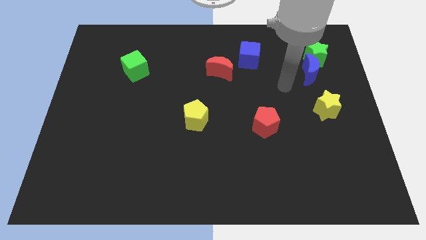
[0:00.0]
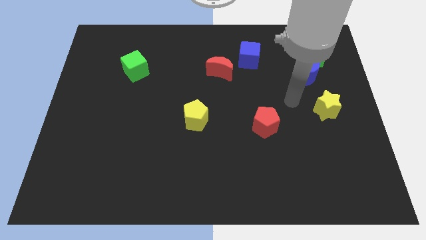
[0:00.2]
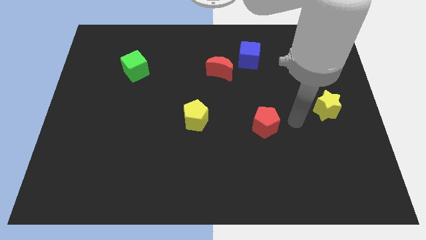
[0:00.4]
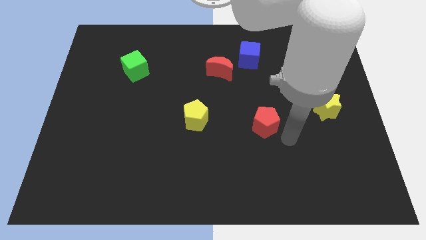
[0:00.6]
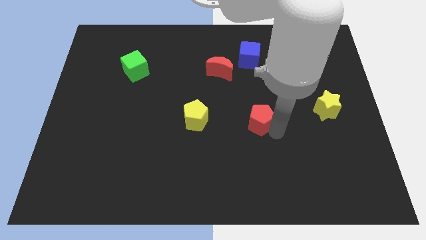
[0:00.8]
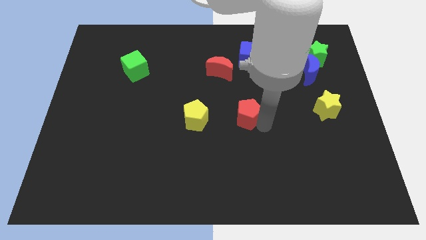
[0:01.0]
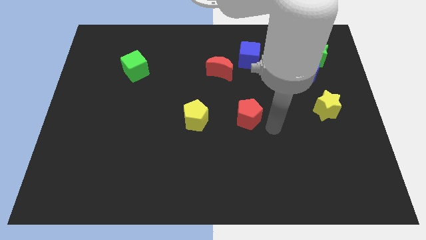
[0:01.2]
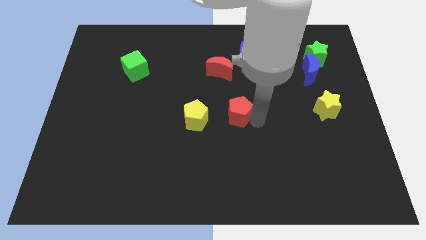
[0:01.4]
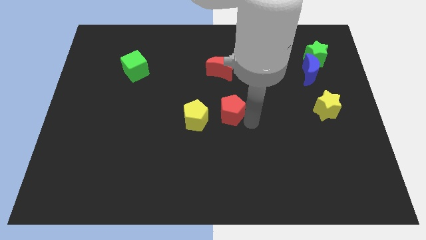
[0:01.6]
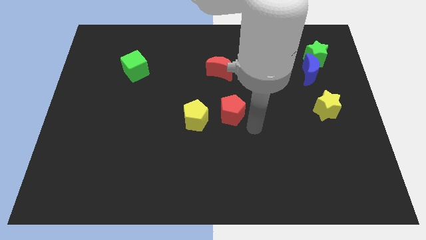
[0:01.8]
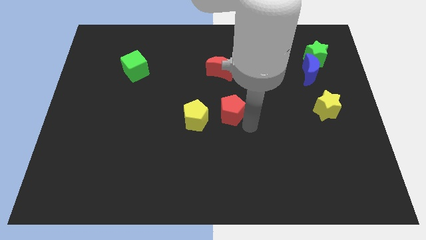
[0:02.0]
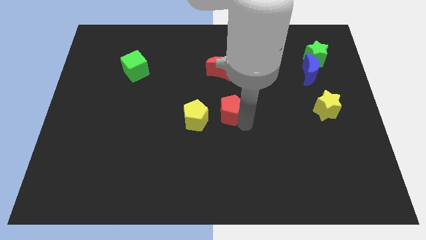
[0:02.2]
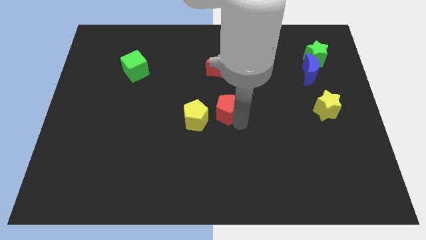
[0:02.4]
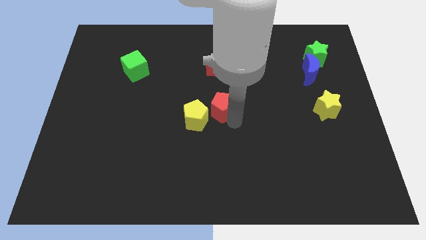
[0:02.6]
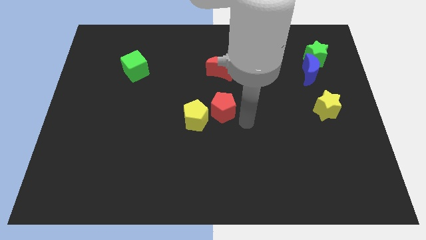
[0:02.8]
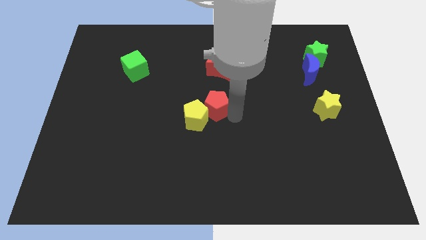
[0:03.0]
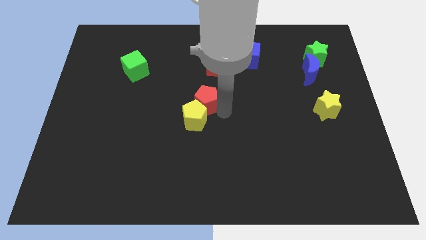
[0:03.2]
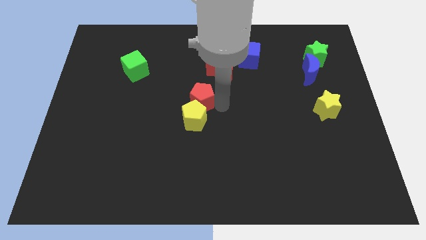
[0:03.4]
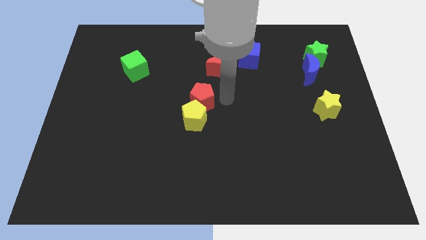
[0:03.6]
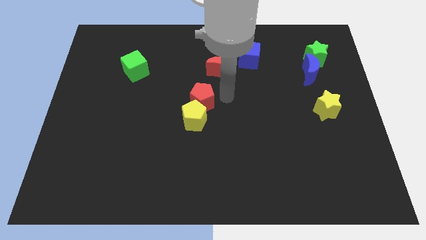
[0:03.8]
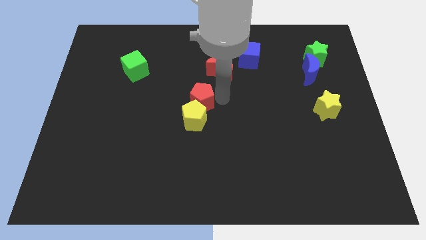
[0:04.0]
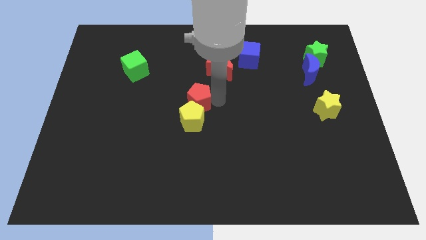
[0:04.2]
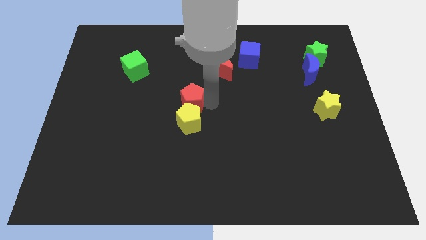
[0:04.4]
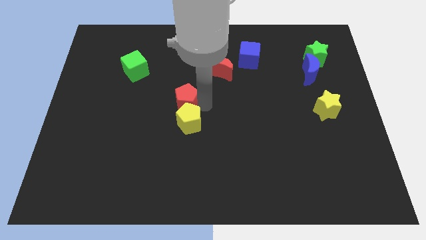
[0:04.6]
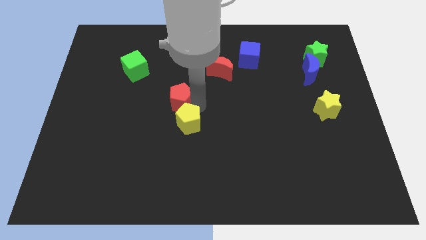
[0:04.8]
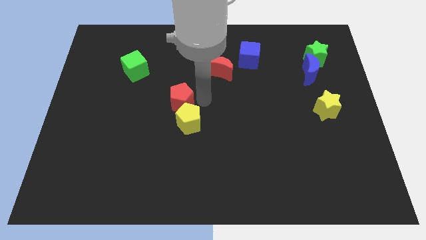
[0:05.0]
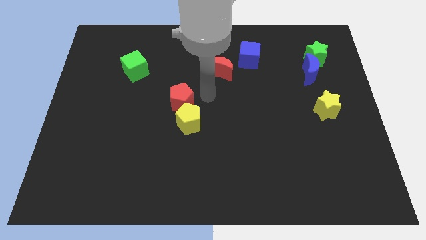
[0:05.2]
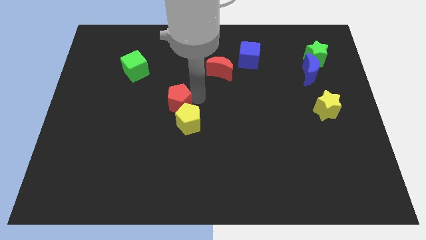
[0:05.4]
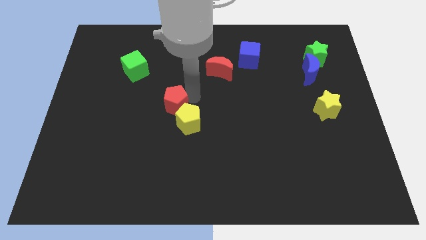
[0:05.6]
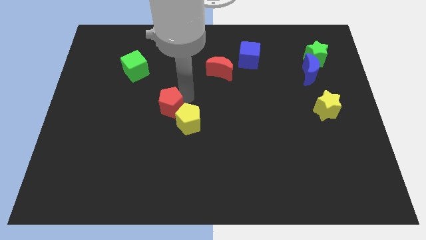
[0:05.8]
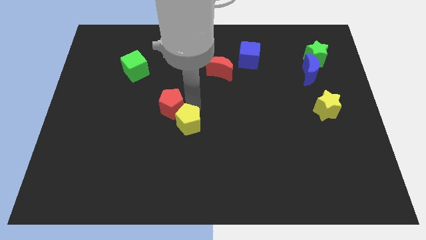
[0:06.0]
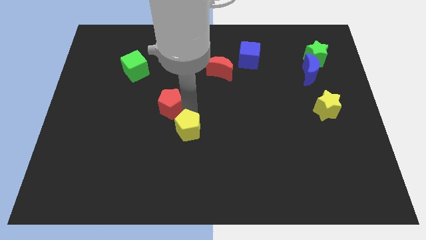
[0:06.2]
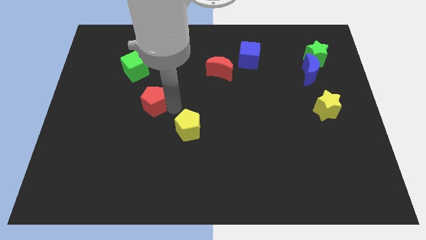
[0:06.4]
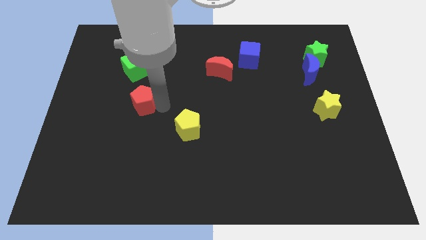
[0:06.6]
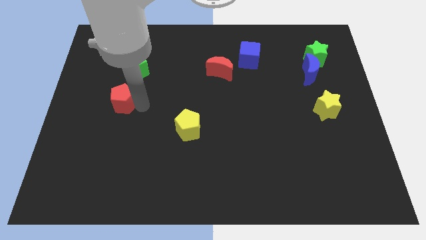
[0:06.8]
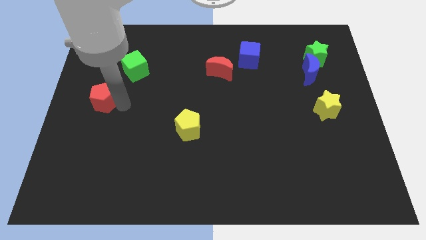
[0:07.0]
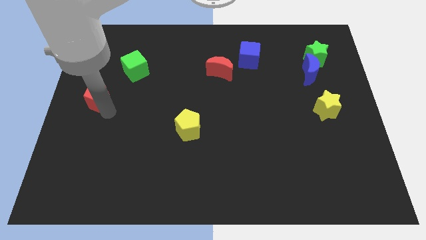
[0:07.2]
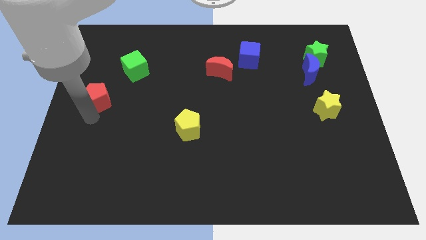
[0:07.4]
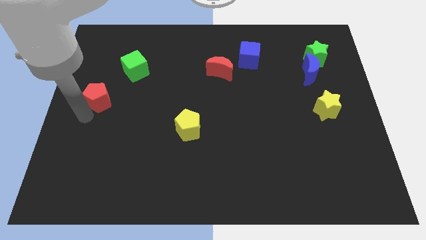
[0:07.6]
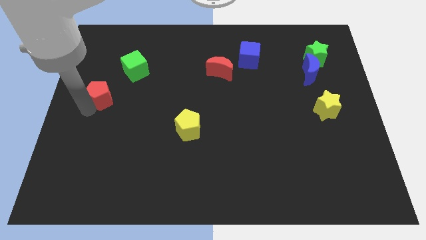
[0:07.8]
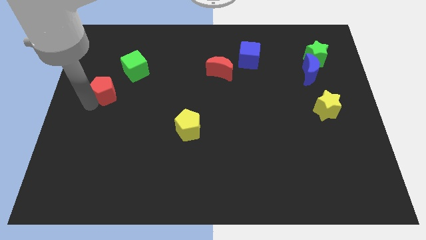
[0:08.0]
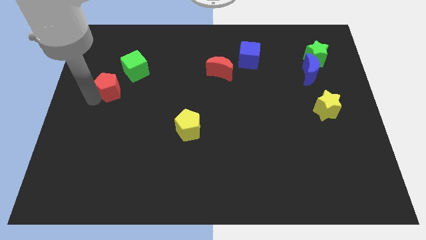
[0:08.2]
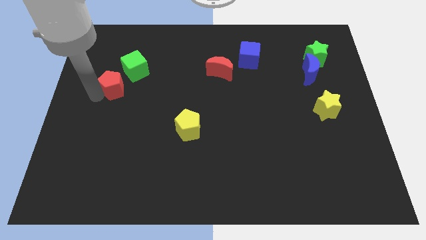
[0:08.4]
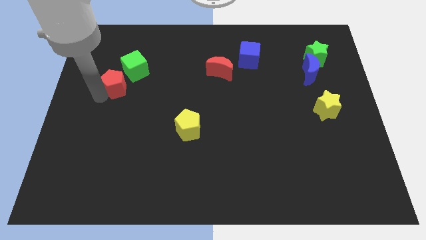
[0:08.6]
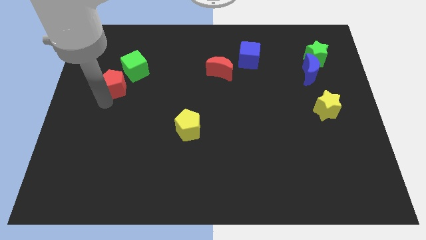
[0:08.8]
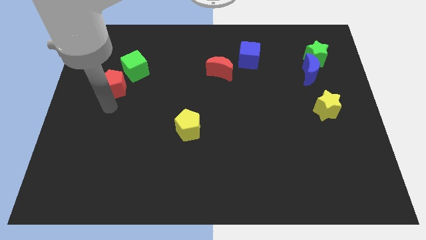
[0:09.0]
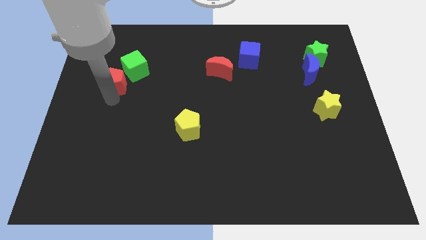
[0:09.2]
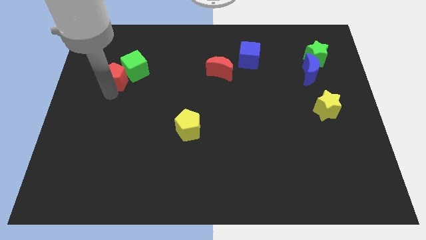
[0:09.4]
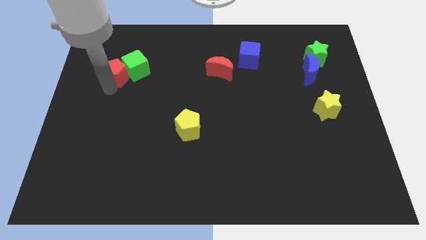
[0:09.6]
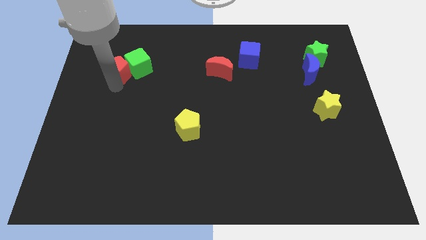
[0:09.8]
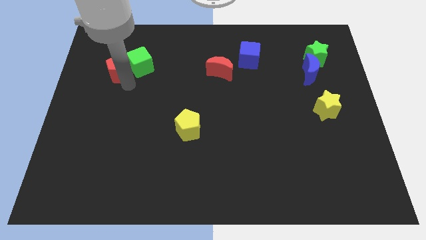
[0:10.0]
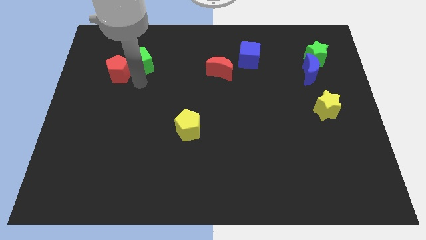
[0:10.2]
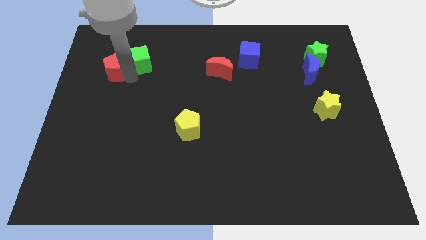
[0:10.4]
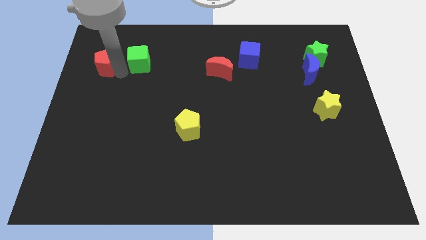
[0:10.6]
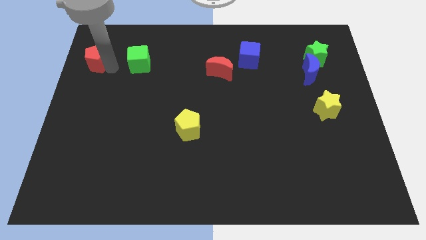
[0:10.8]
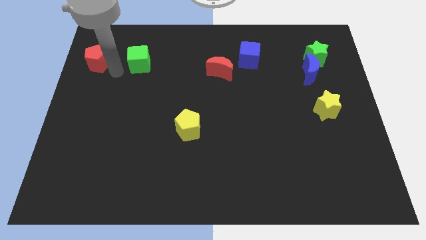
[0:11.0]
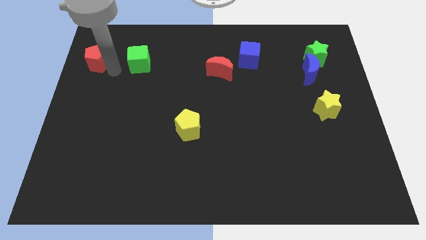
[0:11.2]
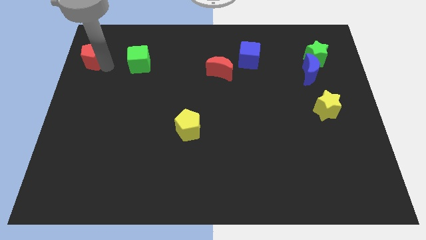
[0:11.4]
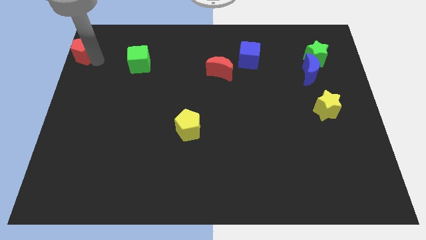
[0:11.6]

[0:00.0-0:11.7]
slide the red pentagon to the top left

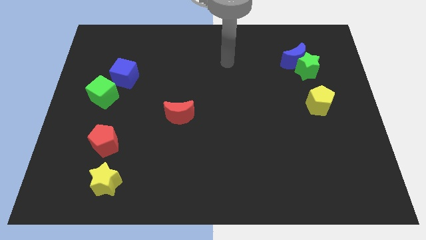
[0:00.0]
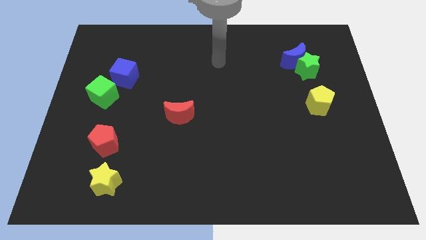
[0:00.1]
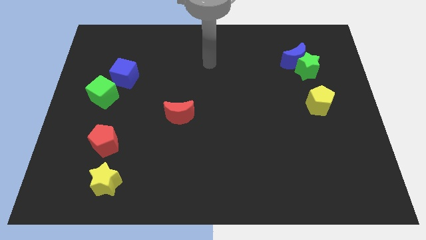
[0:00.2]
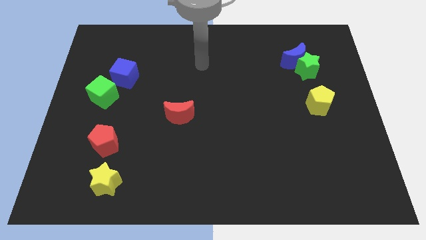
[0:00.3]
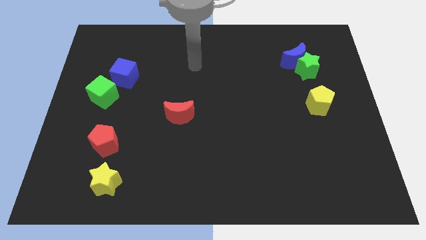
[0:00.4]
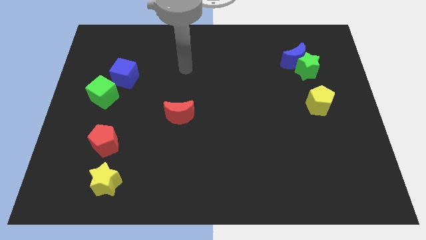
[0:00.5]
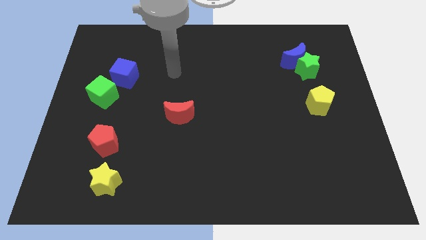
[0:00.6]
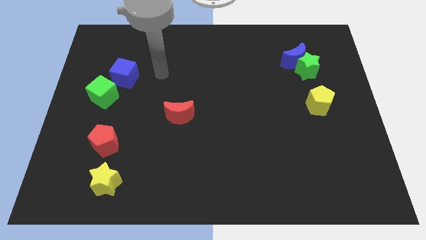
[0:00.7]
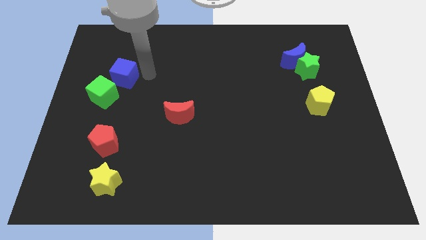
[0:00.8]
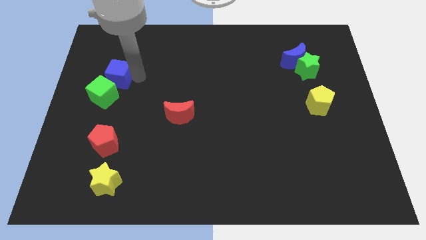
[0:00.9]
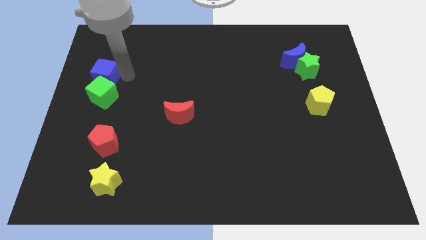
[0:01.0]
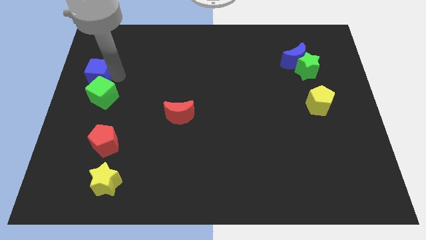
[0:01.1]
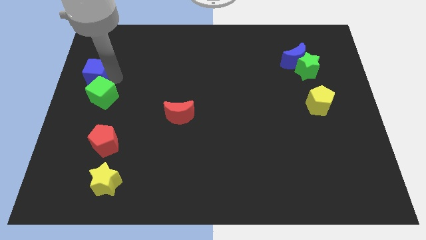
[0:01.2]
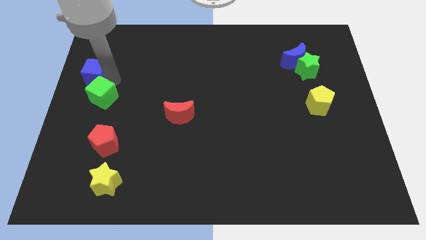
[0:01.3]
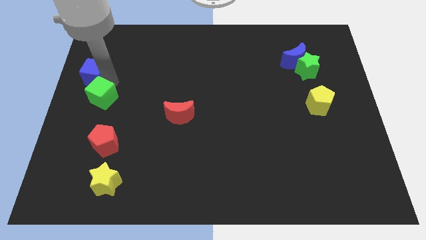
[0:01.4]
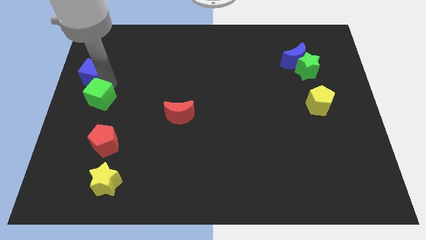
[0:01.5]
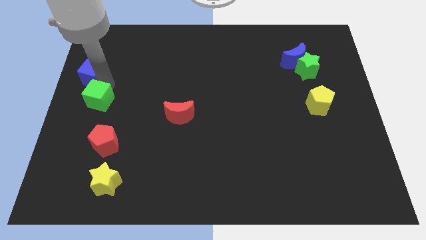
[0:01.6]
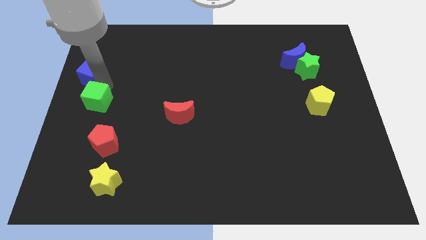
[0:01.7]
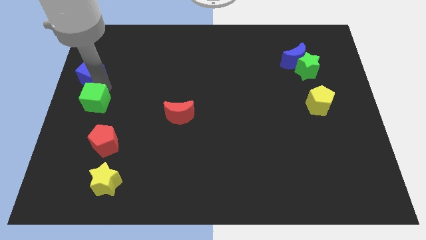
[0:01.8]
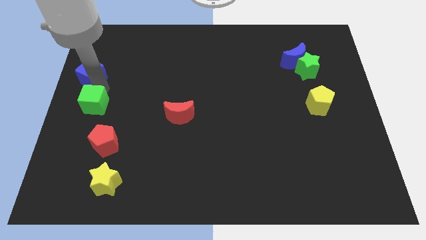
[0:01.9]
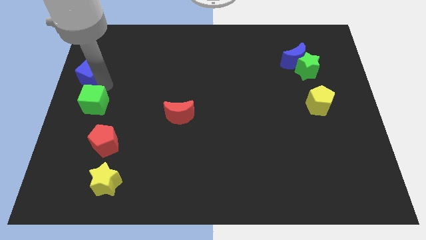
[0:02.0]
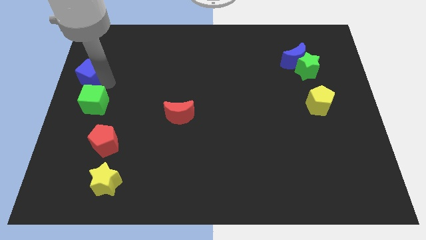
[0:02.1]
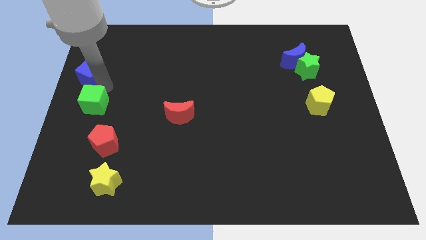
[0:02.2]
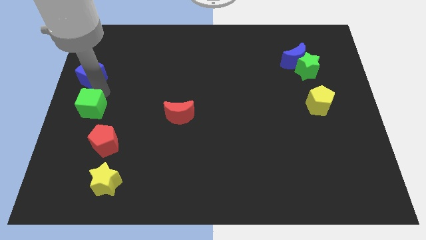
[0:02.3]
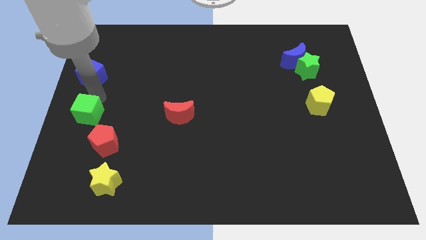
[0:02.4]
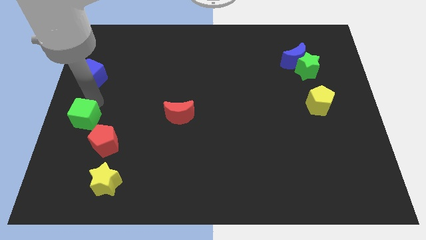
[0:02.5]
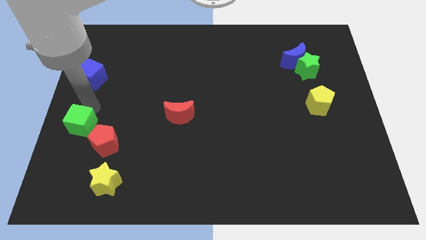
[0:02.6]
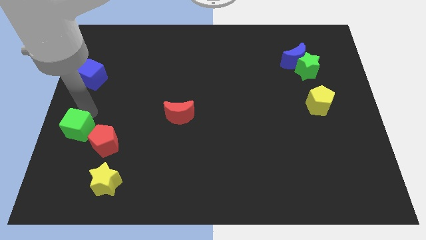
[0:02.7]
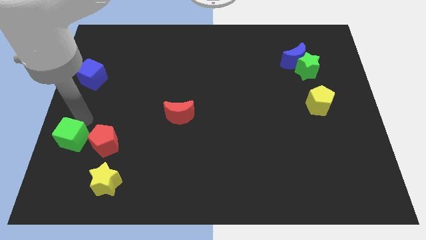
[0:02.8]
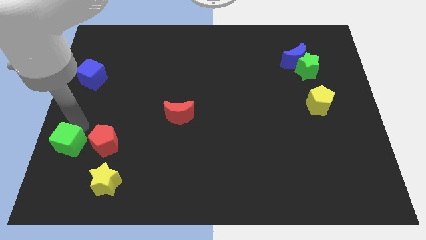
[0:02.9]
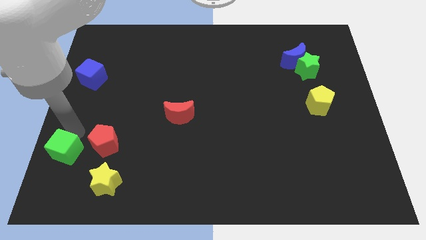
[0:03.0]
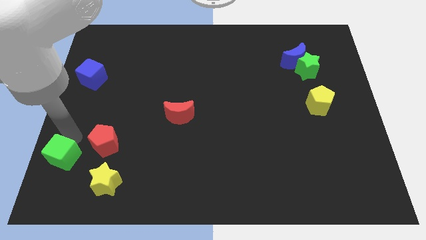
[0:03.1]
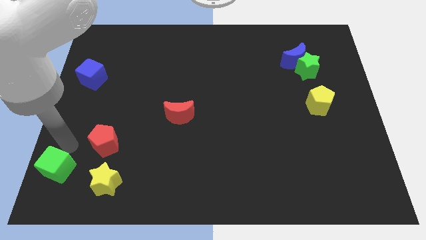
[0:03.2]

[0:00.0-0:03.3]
put the green cube to the lower left corner
